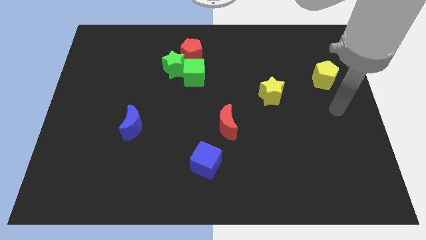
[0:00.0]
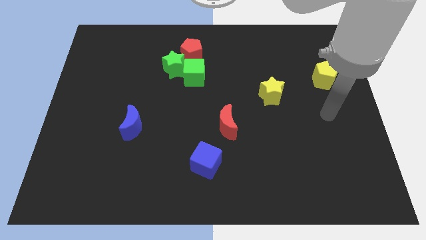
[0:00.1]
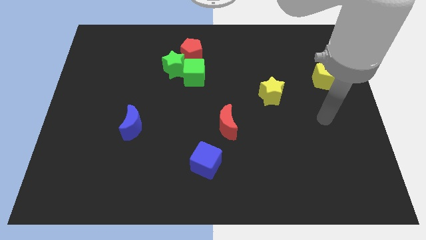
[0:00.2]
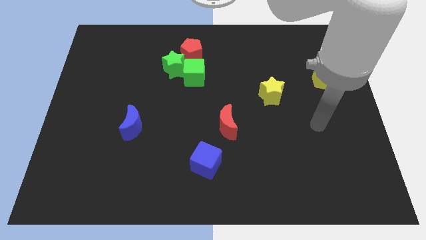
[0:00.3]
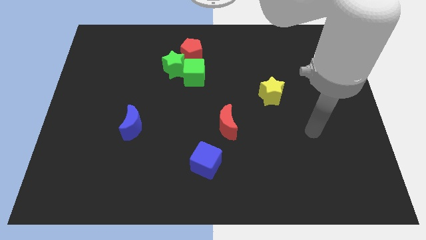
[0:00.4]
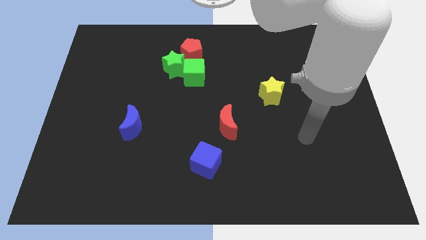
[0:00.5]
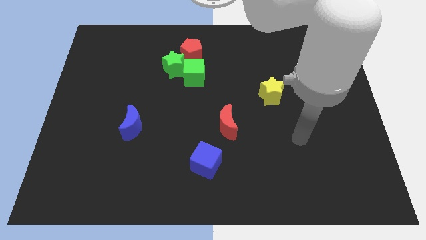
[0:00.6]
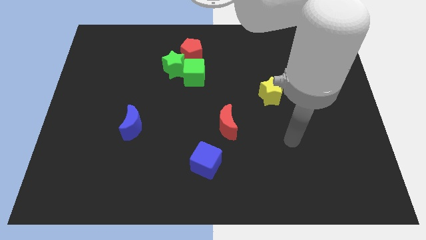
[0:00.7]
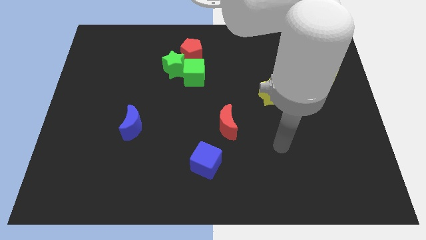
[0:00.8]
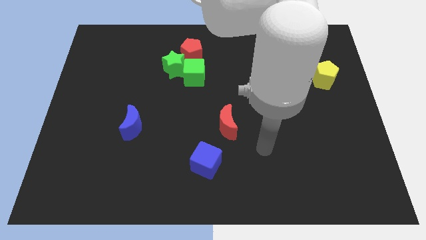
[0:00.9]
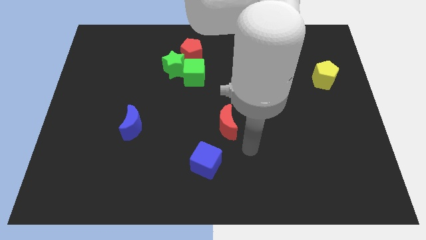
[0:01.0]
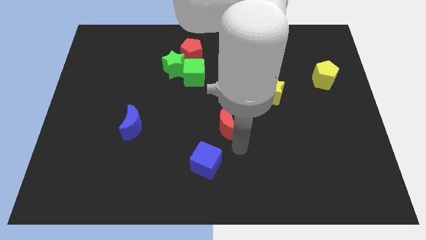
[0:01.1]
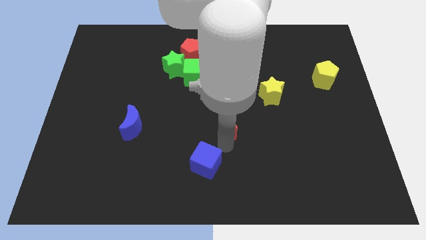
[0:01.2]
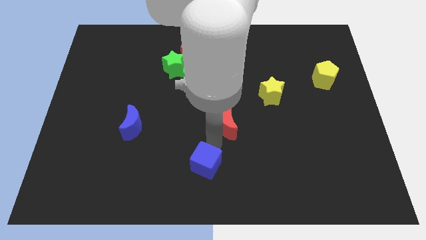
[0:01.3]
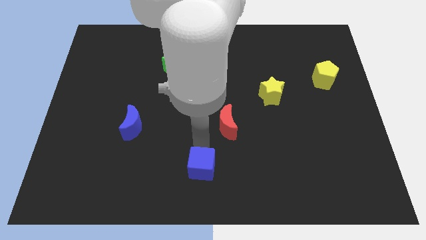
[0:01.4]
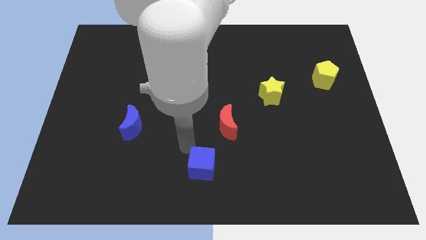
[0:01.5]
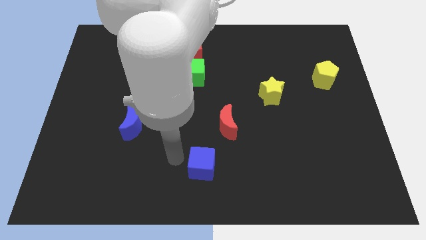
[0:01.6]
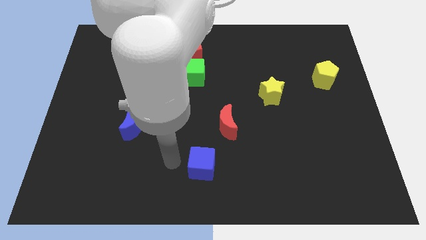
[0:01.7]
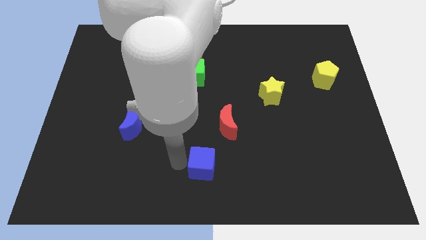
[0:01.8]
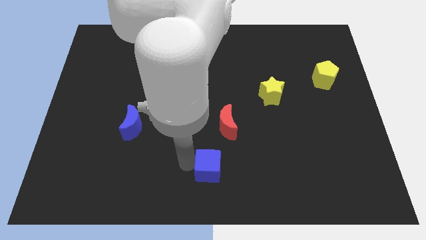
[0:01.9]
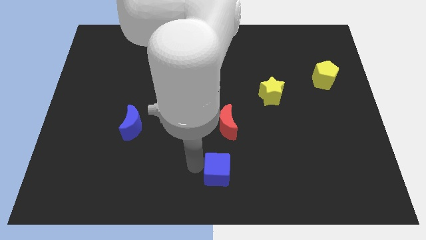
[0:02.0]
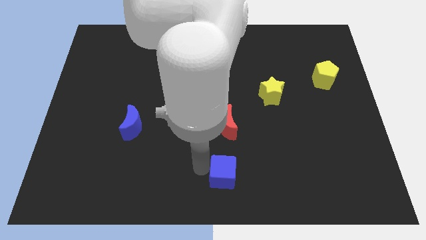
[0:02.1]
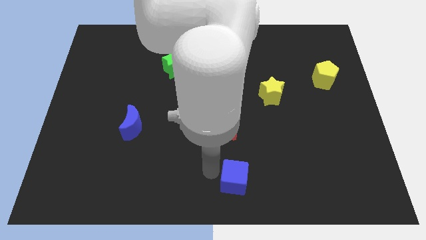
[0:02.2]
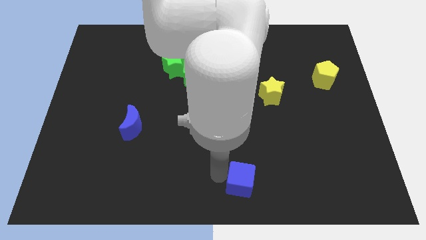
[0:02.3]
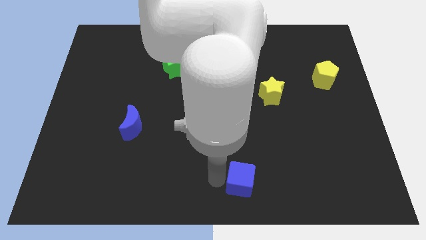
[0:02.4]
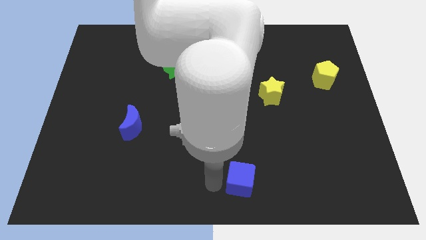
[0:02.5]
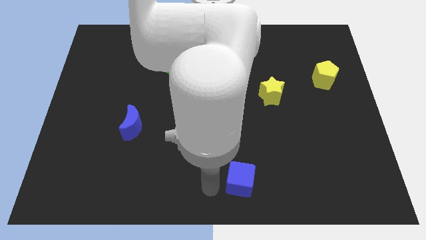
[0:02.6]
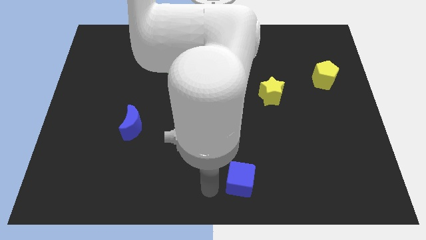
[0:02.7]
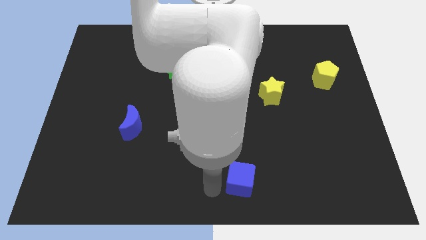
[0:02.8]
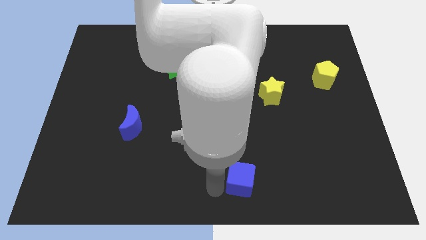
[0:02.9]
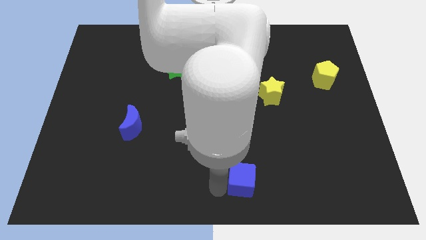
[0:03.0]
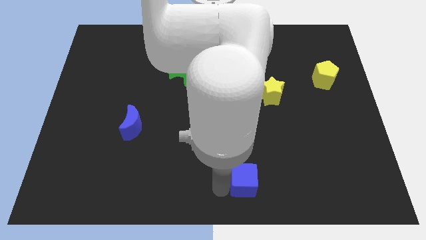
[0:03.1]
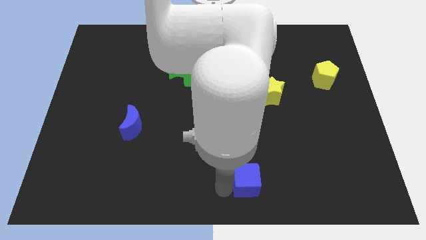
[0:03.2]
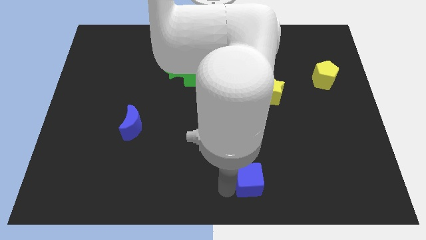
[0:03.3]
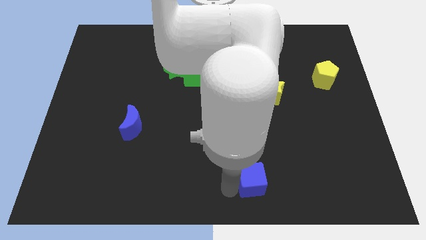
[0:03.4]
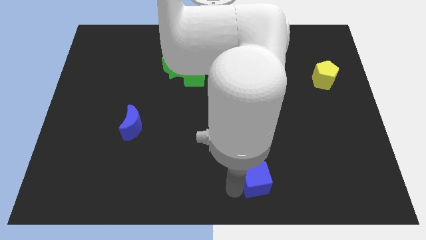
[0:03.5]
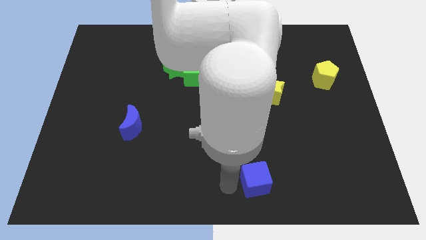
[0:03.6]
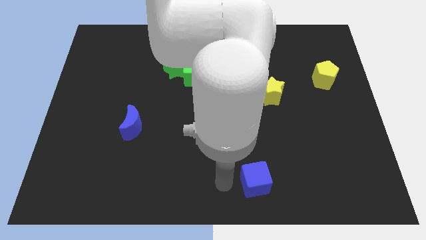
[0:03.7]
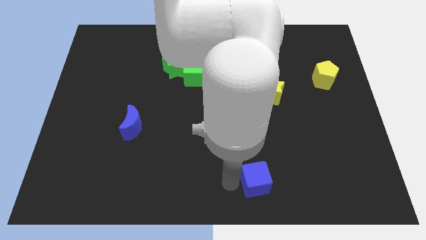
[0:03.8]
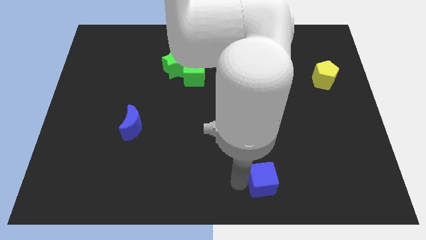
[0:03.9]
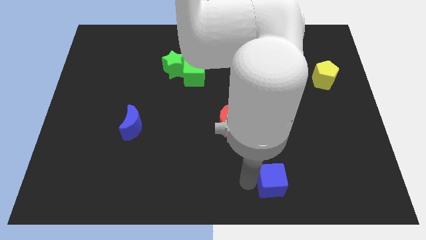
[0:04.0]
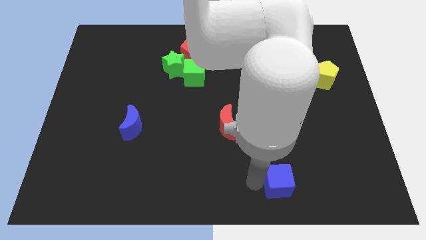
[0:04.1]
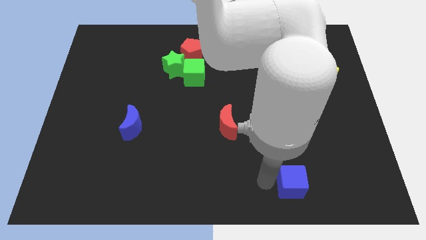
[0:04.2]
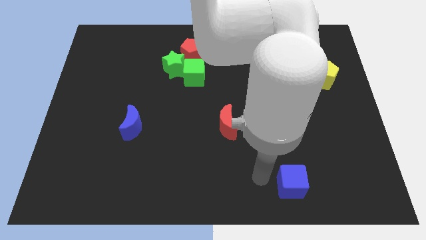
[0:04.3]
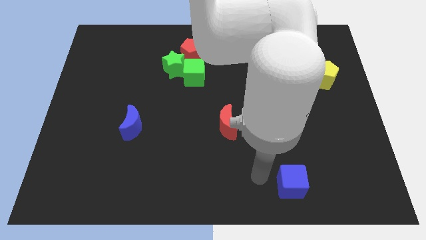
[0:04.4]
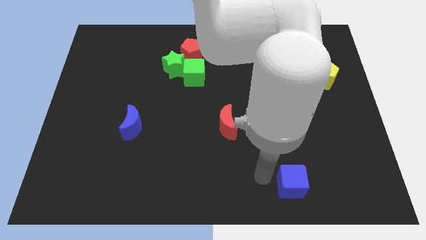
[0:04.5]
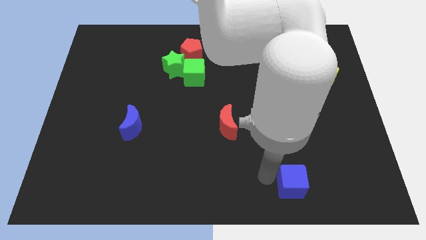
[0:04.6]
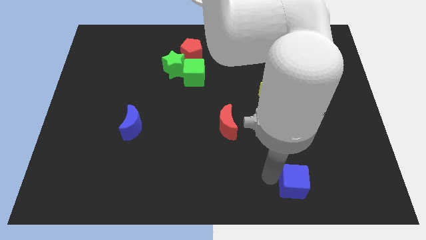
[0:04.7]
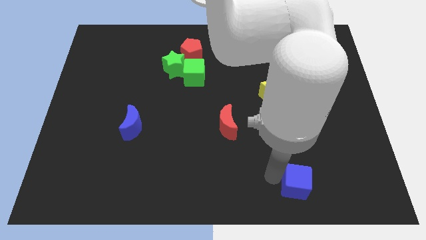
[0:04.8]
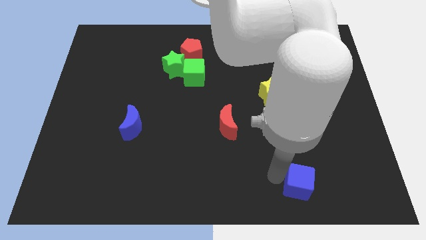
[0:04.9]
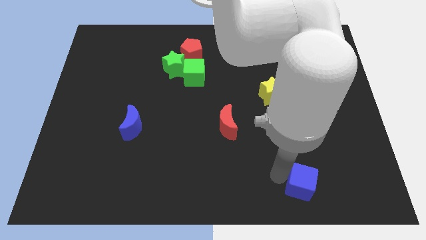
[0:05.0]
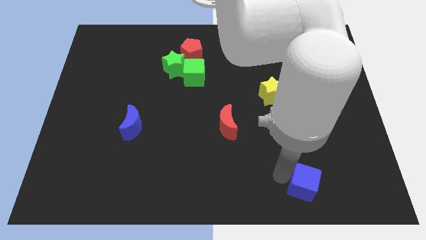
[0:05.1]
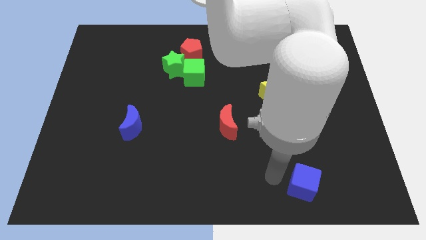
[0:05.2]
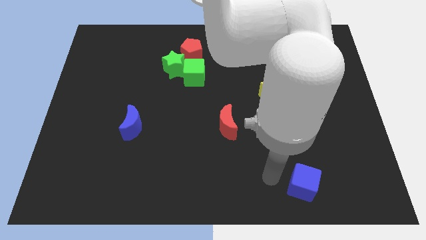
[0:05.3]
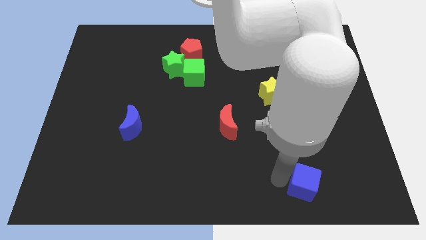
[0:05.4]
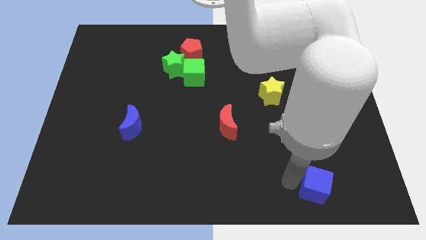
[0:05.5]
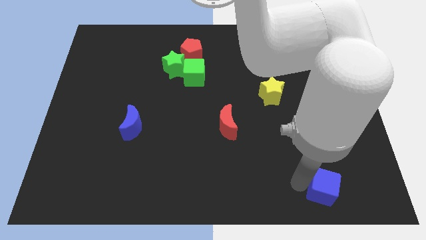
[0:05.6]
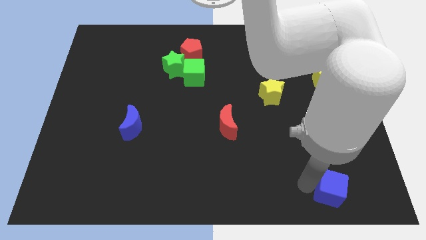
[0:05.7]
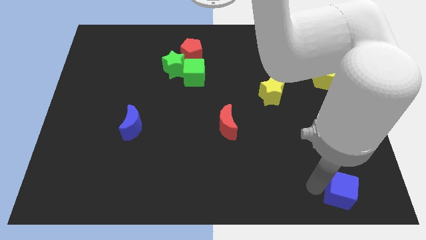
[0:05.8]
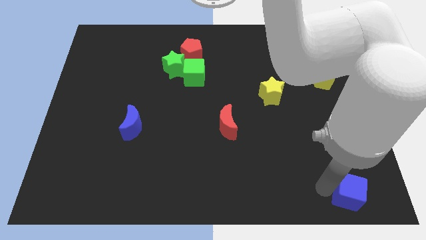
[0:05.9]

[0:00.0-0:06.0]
push the blue cube to the bottom right corner

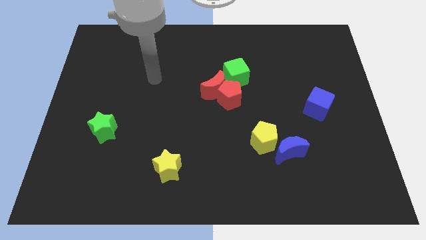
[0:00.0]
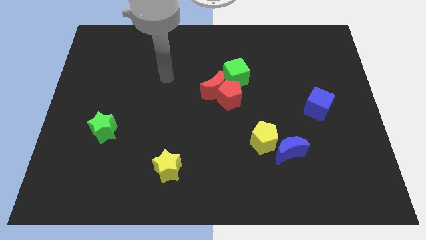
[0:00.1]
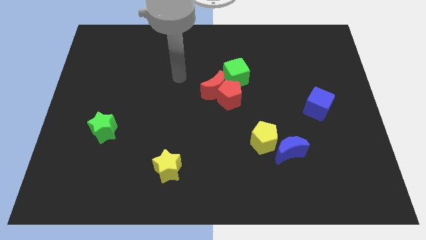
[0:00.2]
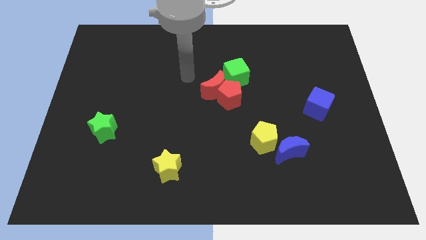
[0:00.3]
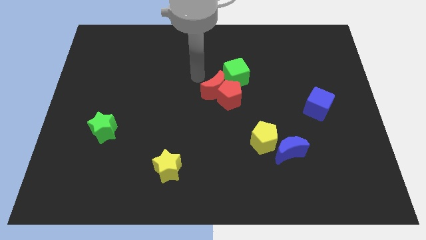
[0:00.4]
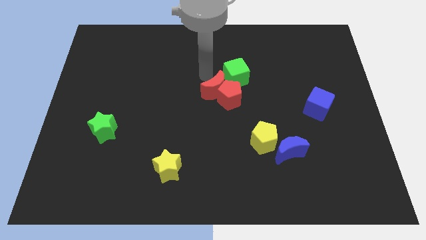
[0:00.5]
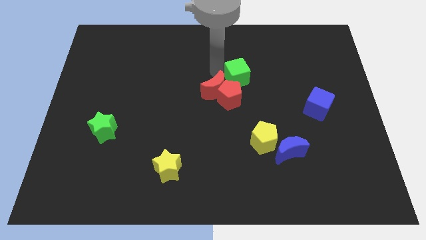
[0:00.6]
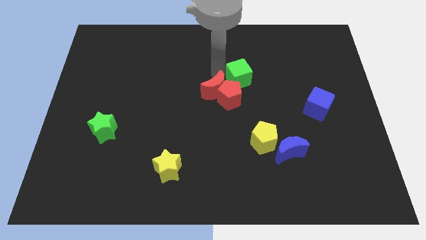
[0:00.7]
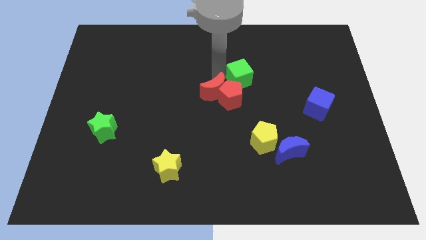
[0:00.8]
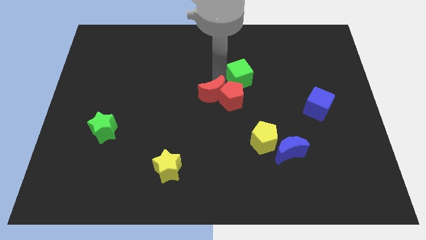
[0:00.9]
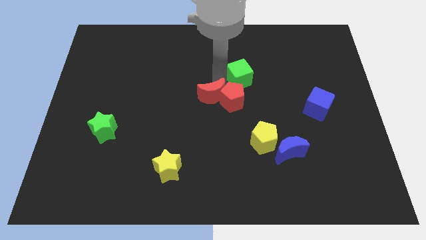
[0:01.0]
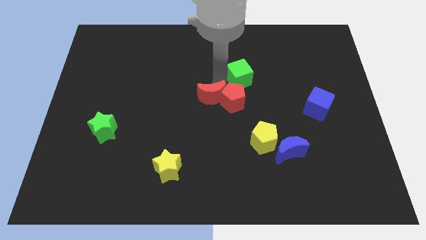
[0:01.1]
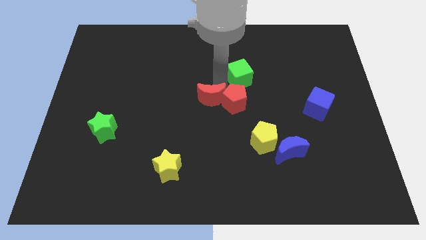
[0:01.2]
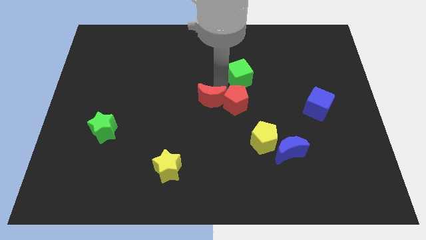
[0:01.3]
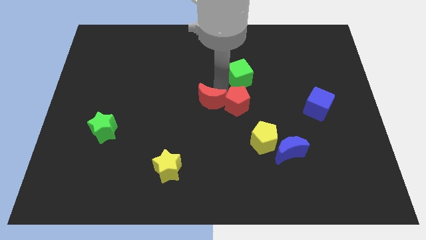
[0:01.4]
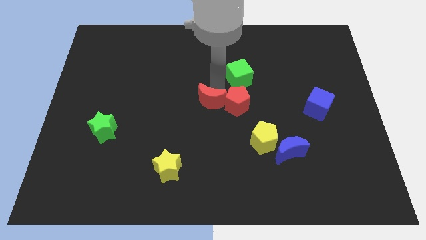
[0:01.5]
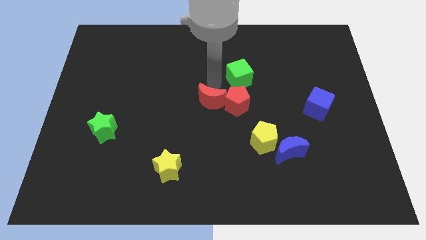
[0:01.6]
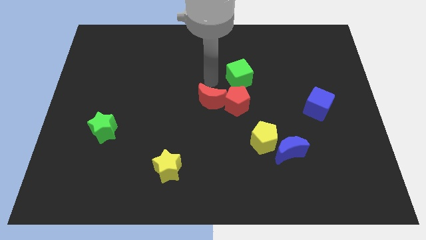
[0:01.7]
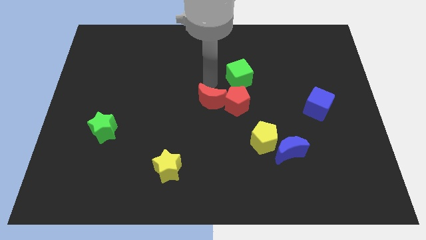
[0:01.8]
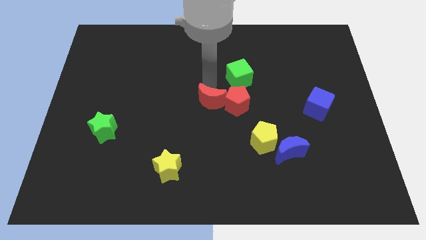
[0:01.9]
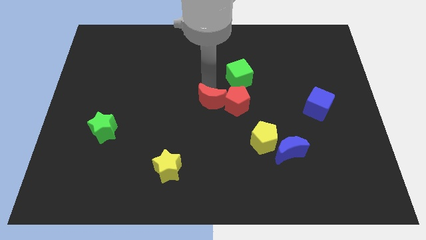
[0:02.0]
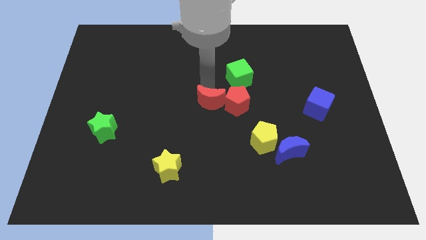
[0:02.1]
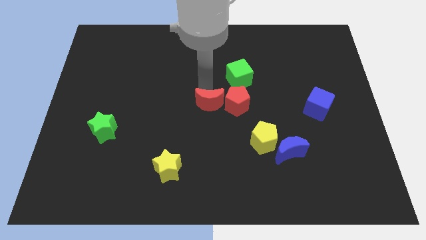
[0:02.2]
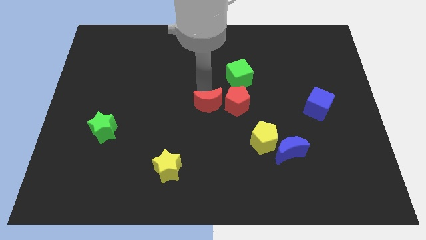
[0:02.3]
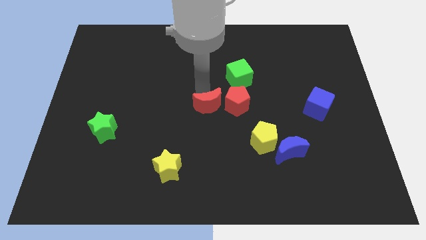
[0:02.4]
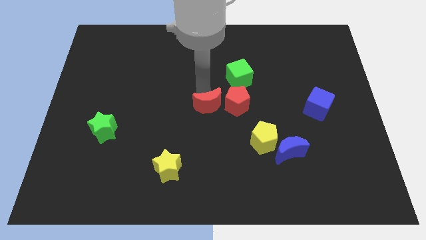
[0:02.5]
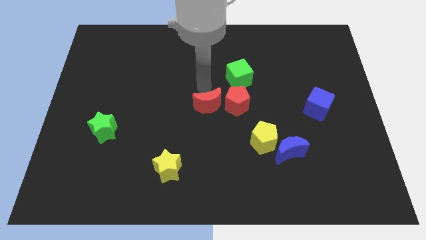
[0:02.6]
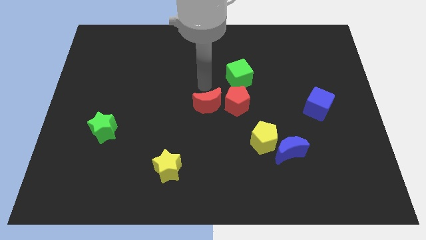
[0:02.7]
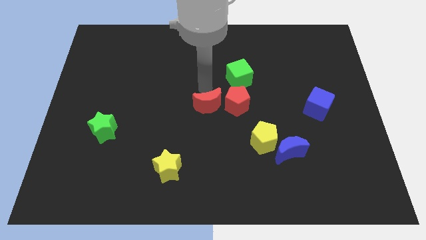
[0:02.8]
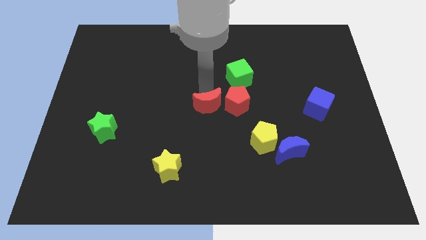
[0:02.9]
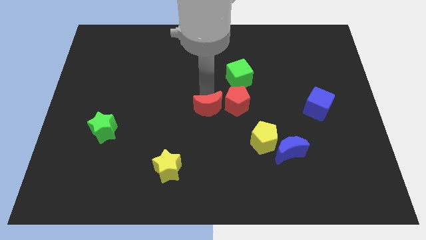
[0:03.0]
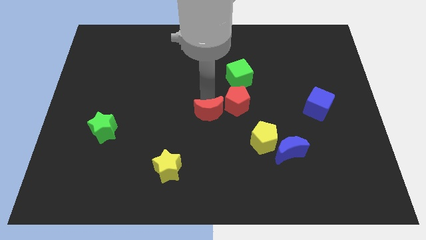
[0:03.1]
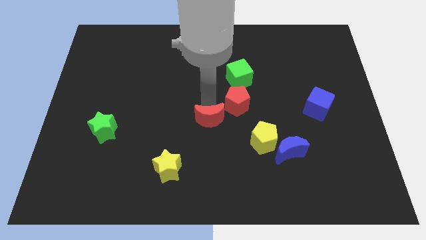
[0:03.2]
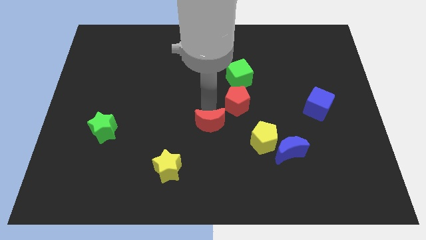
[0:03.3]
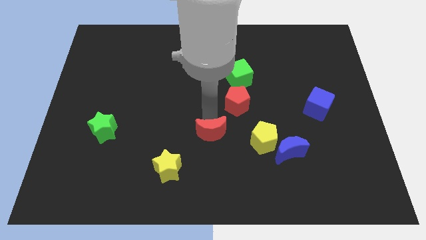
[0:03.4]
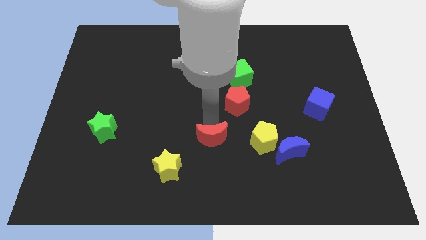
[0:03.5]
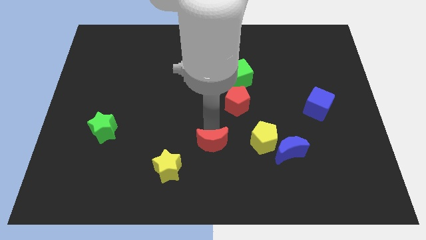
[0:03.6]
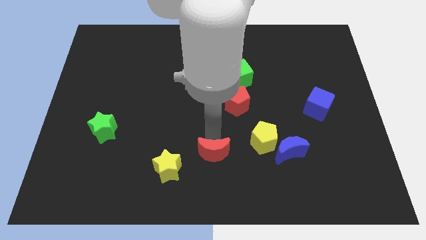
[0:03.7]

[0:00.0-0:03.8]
put the red moon to the bottom
